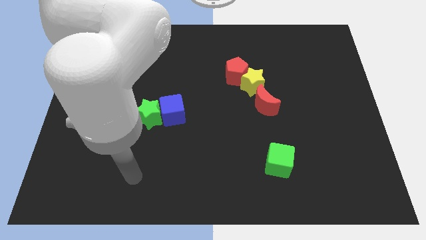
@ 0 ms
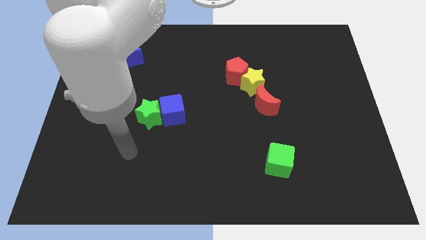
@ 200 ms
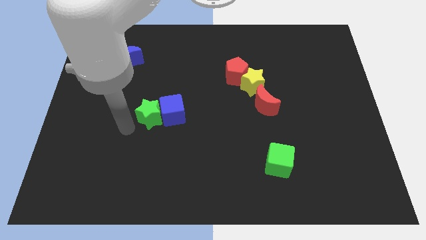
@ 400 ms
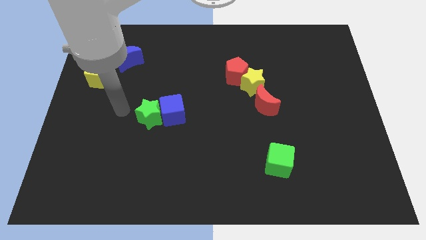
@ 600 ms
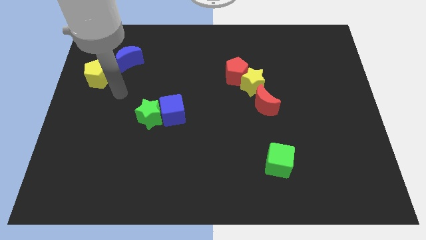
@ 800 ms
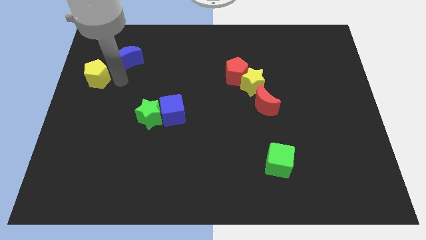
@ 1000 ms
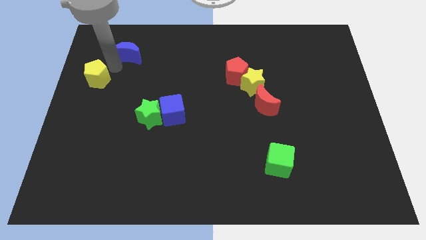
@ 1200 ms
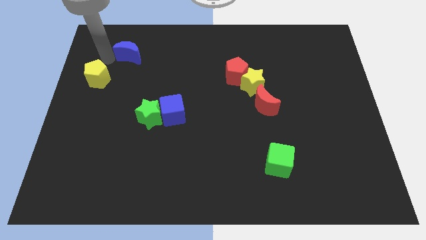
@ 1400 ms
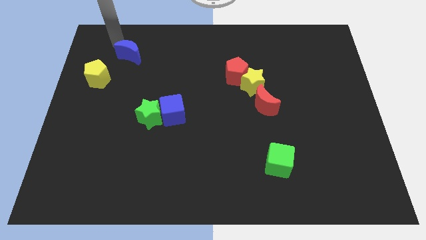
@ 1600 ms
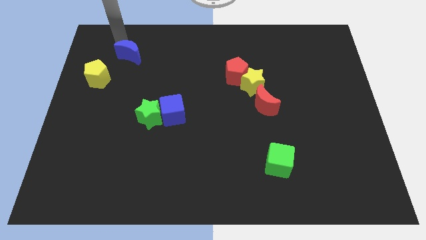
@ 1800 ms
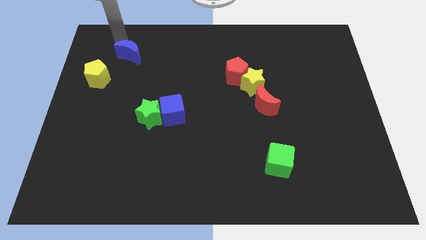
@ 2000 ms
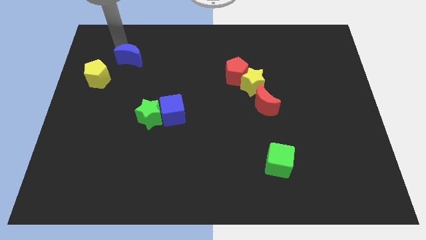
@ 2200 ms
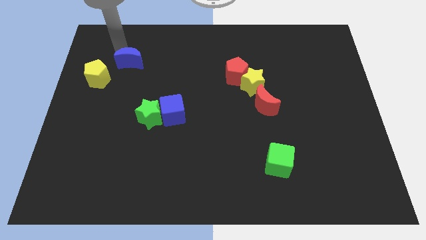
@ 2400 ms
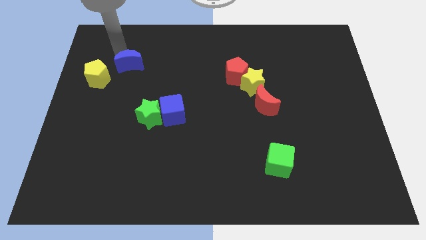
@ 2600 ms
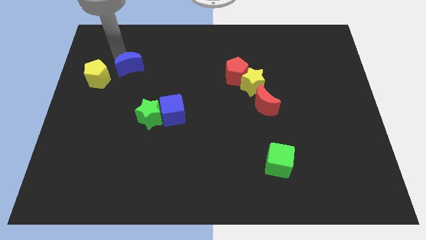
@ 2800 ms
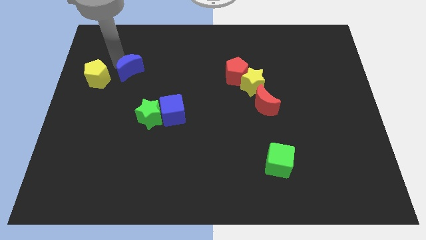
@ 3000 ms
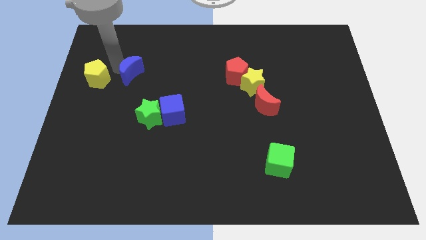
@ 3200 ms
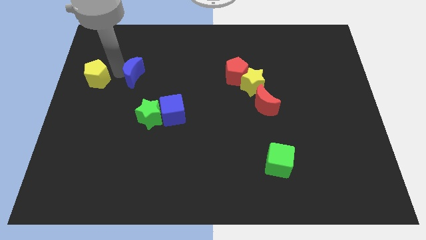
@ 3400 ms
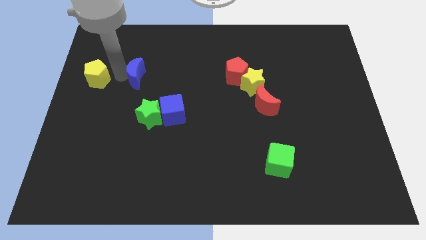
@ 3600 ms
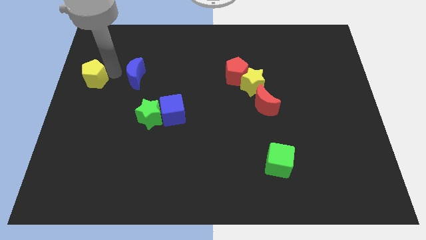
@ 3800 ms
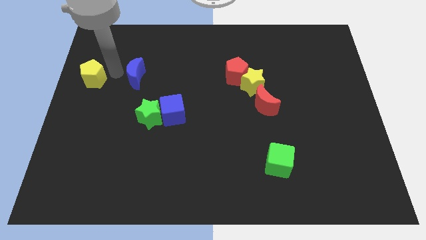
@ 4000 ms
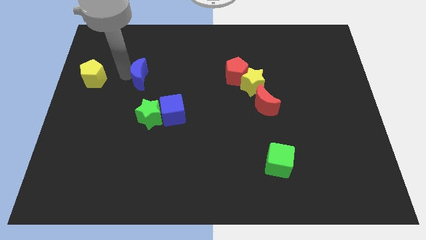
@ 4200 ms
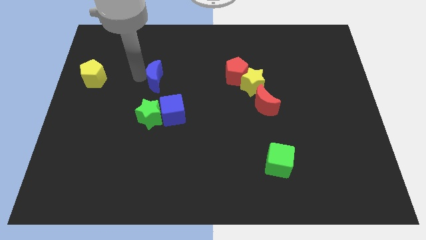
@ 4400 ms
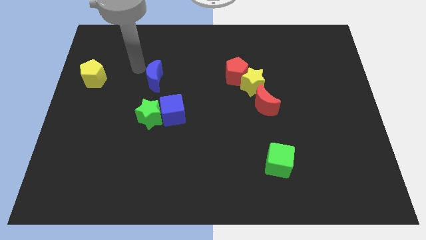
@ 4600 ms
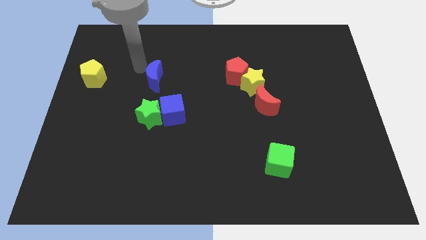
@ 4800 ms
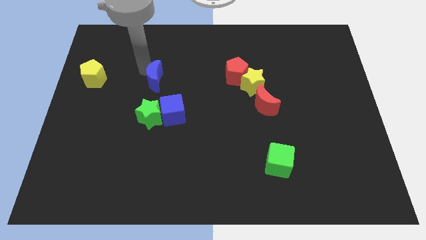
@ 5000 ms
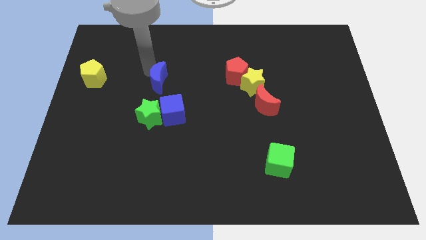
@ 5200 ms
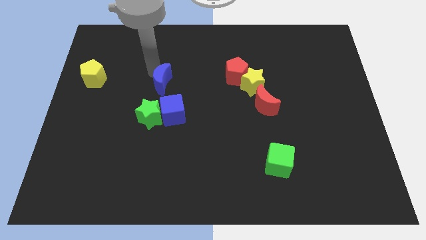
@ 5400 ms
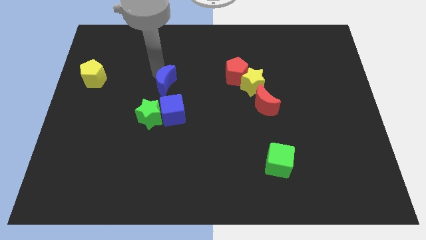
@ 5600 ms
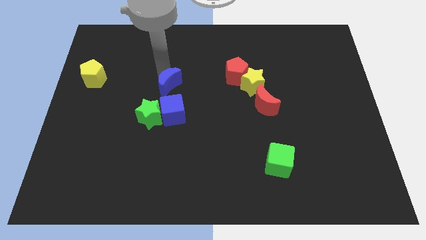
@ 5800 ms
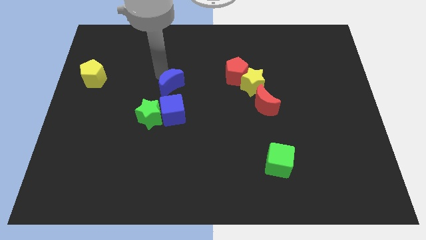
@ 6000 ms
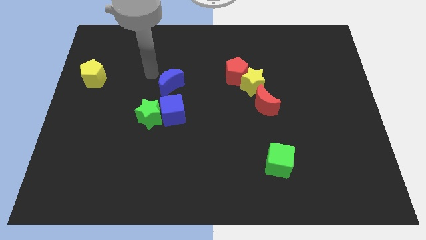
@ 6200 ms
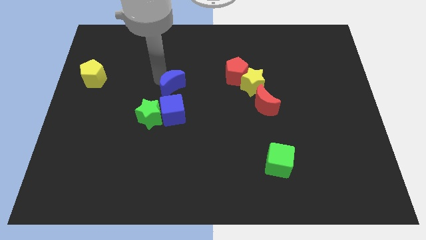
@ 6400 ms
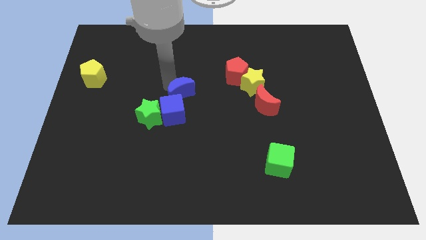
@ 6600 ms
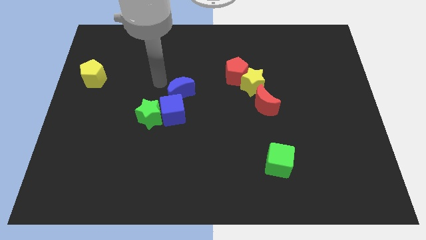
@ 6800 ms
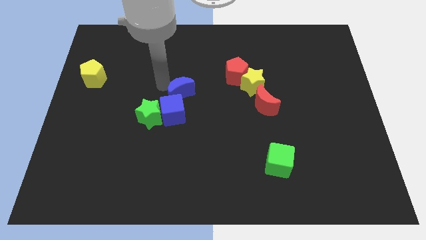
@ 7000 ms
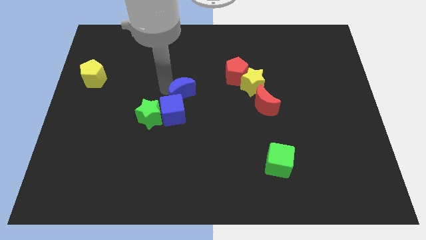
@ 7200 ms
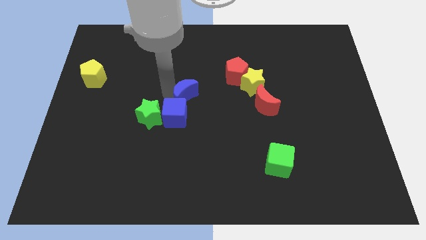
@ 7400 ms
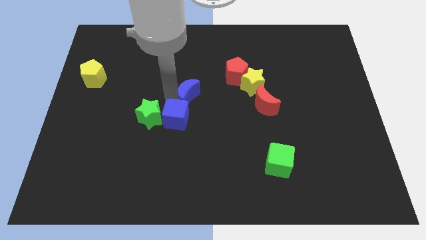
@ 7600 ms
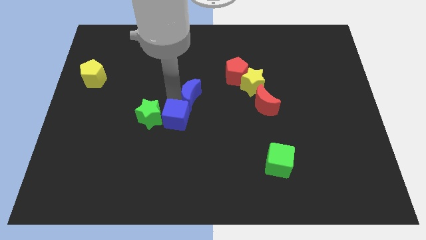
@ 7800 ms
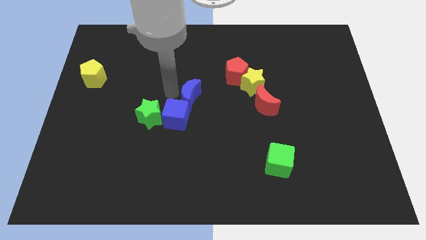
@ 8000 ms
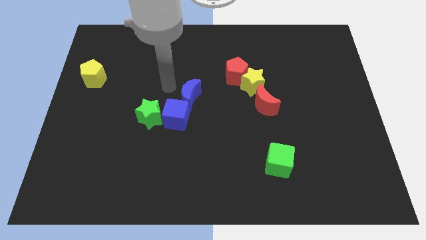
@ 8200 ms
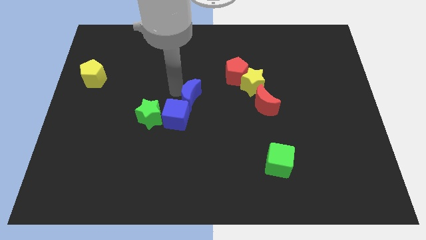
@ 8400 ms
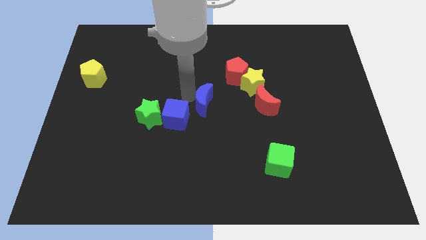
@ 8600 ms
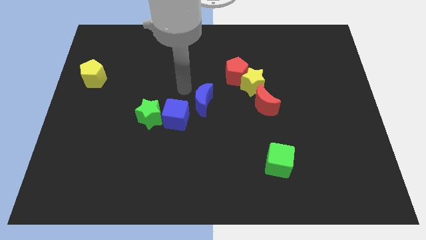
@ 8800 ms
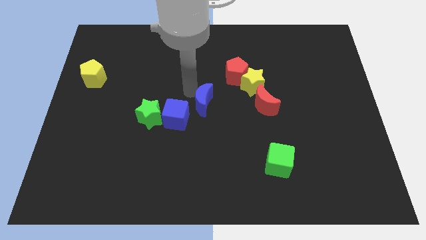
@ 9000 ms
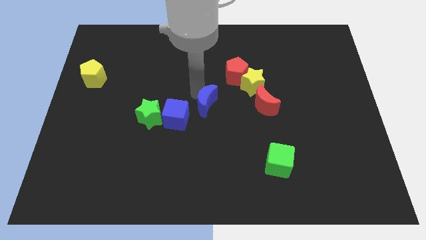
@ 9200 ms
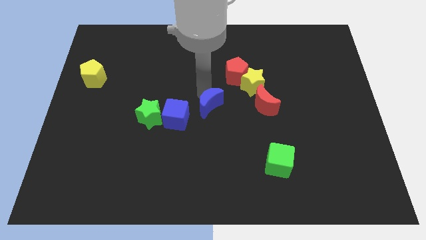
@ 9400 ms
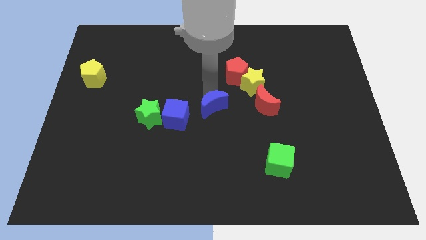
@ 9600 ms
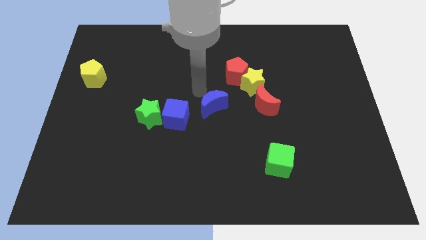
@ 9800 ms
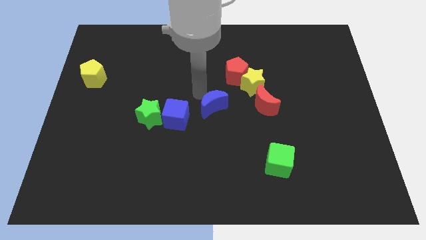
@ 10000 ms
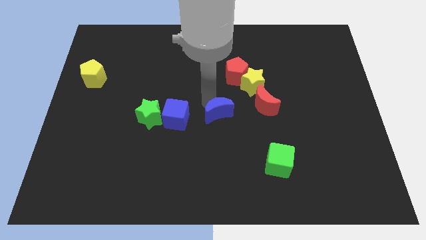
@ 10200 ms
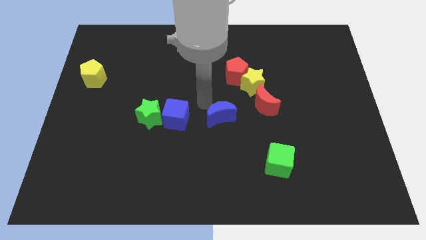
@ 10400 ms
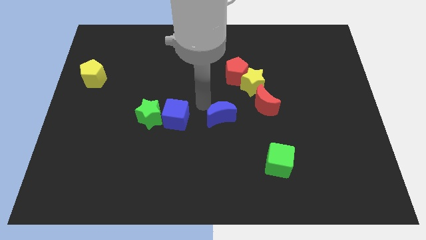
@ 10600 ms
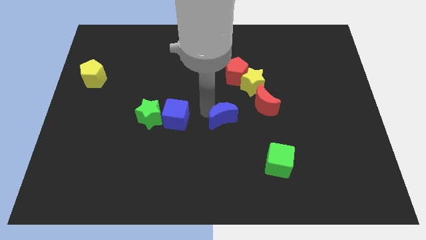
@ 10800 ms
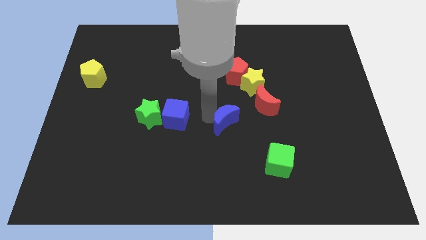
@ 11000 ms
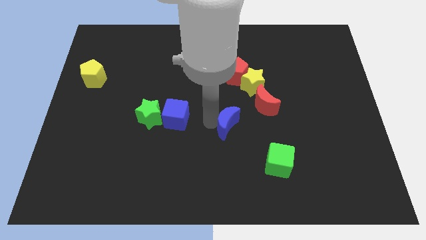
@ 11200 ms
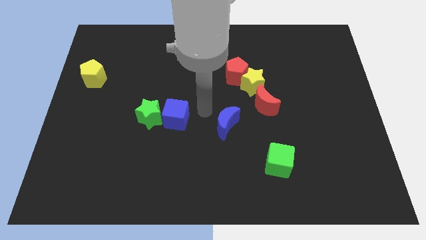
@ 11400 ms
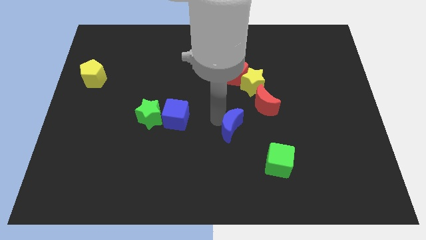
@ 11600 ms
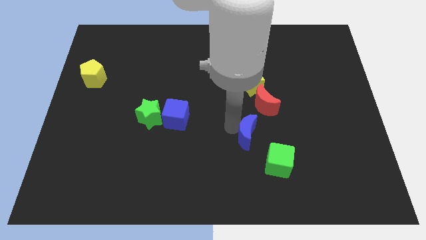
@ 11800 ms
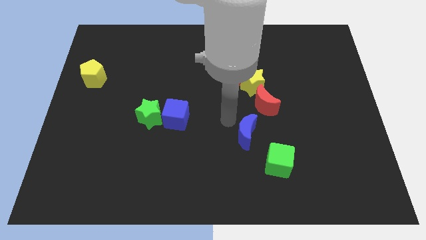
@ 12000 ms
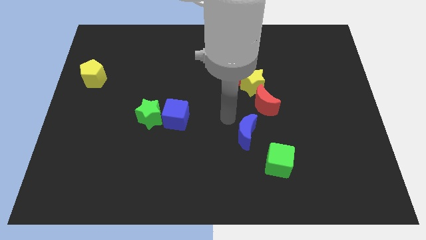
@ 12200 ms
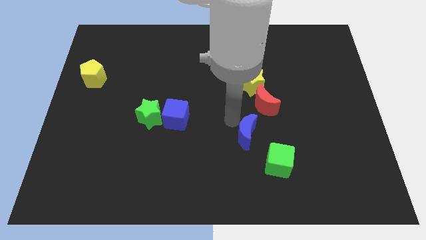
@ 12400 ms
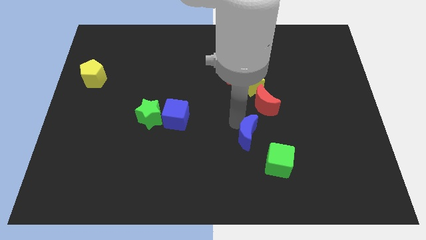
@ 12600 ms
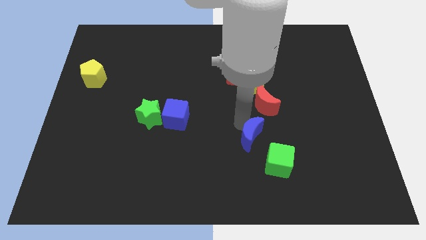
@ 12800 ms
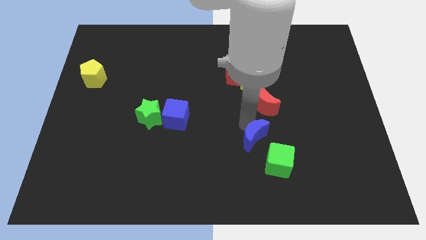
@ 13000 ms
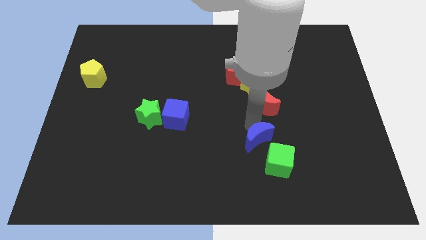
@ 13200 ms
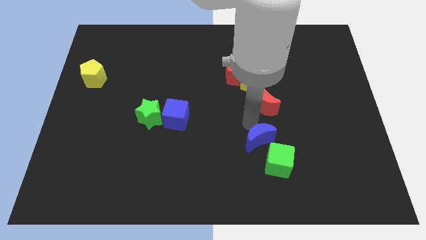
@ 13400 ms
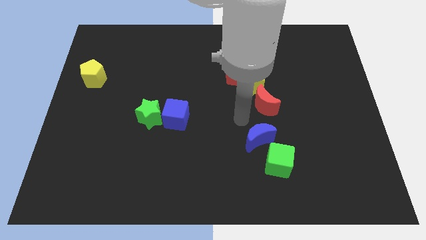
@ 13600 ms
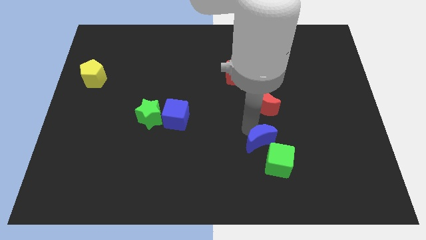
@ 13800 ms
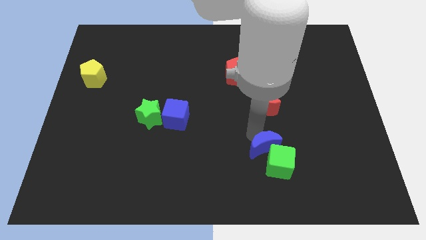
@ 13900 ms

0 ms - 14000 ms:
slide the blue moon towards the green cube

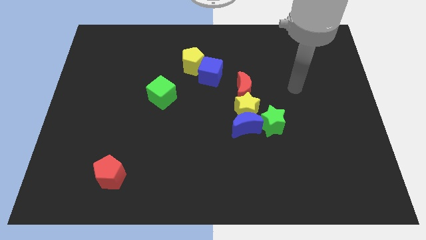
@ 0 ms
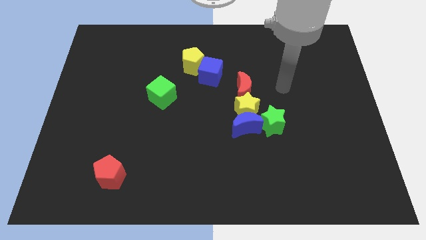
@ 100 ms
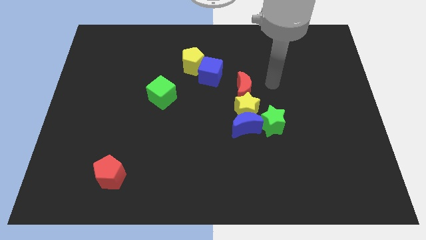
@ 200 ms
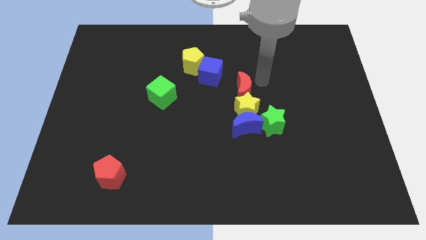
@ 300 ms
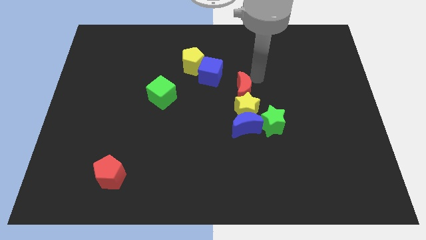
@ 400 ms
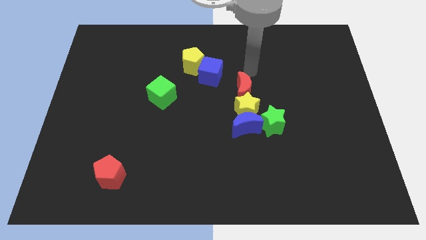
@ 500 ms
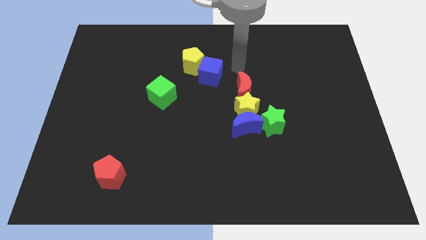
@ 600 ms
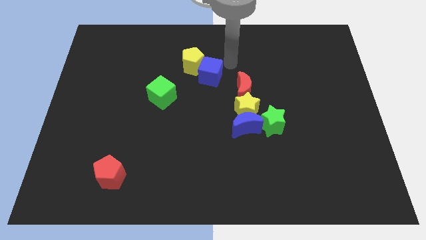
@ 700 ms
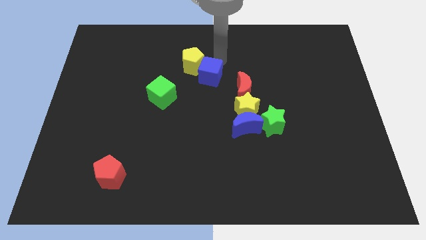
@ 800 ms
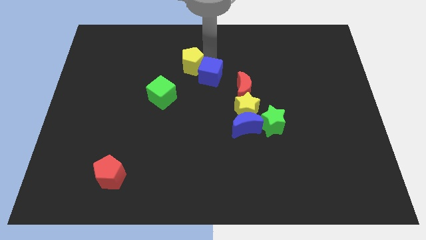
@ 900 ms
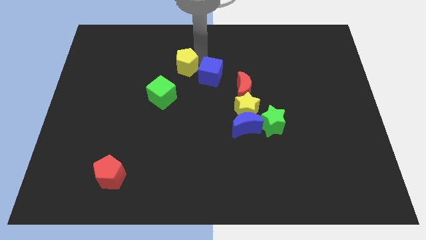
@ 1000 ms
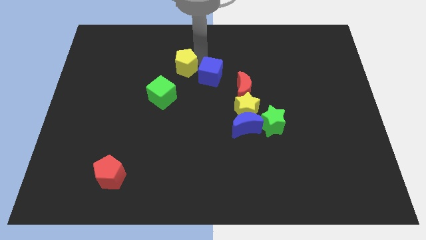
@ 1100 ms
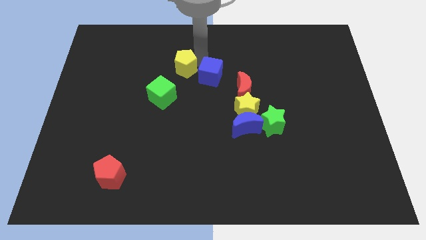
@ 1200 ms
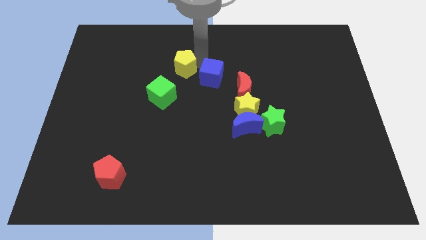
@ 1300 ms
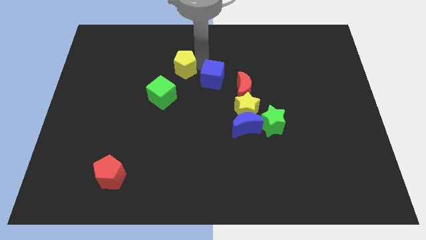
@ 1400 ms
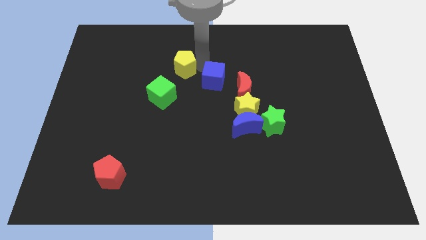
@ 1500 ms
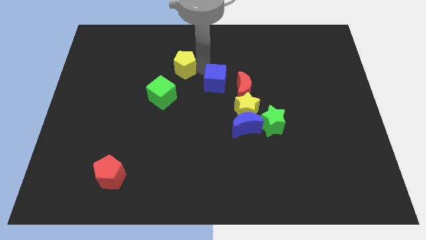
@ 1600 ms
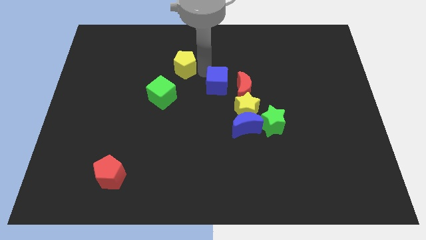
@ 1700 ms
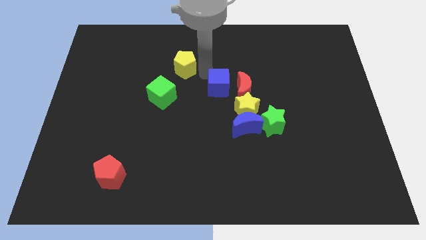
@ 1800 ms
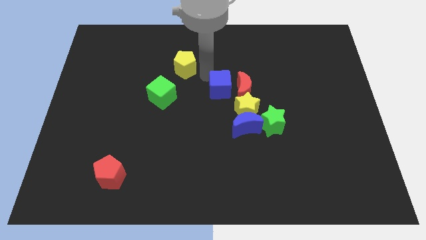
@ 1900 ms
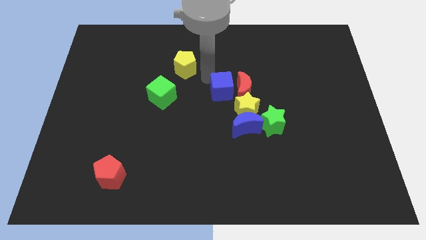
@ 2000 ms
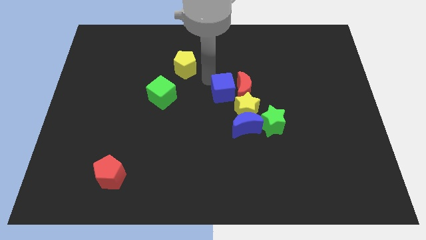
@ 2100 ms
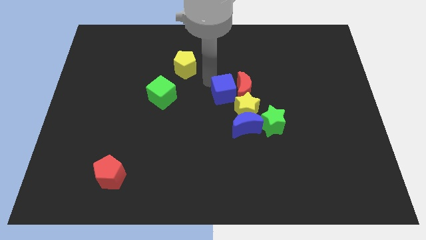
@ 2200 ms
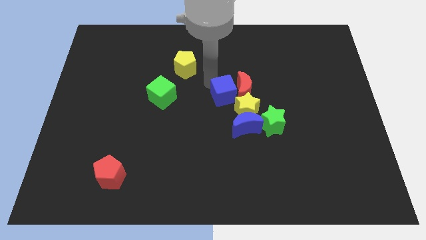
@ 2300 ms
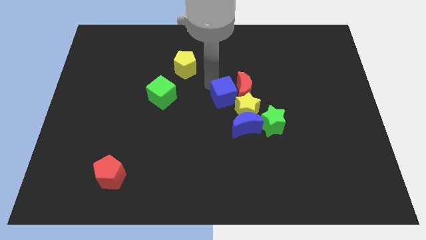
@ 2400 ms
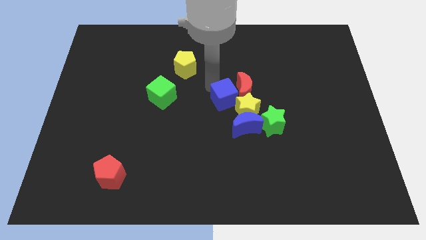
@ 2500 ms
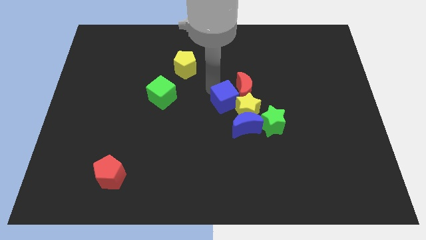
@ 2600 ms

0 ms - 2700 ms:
push the blue cube towards the yellow star
